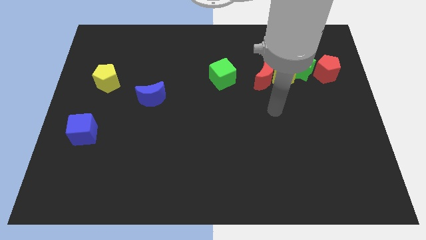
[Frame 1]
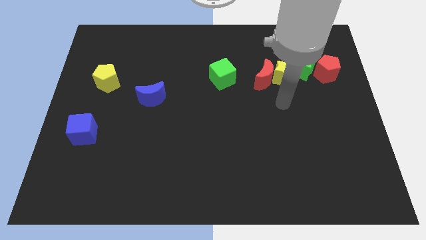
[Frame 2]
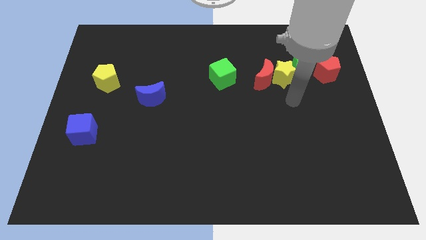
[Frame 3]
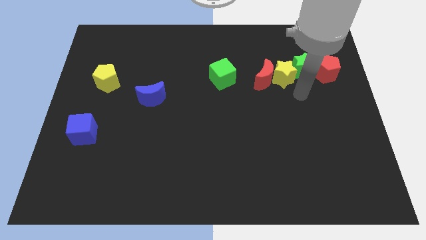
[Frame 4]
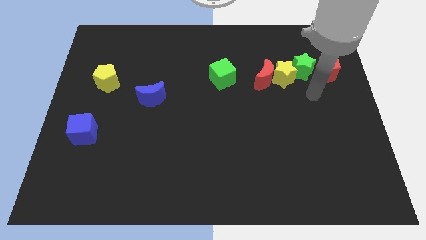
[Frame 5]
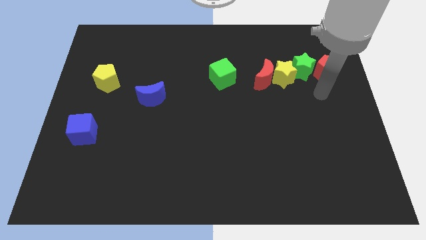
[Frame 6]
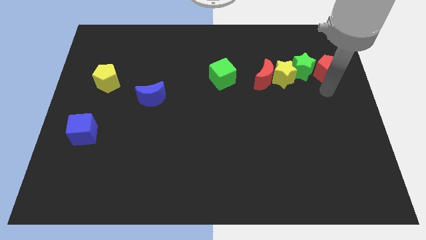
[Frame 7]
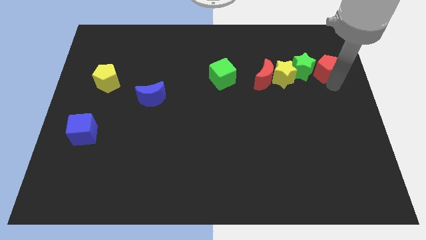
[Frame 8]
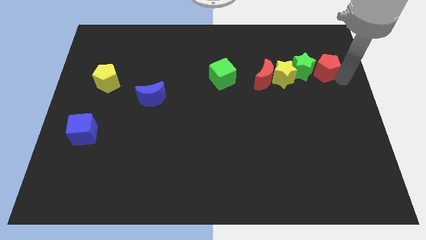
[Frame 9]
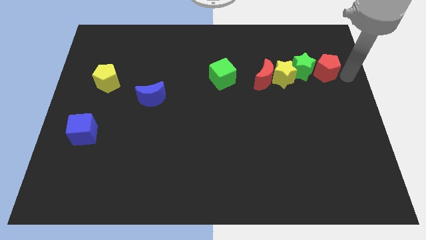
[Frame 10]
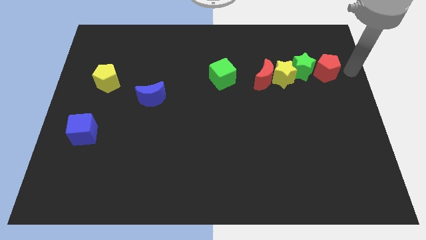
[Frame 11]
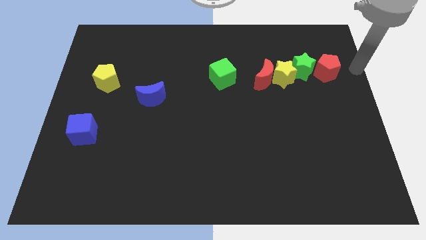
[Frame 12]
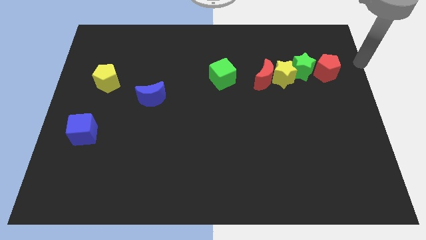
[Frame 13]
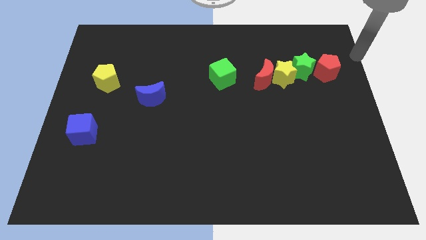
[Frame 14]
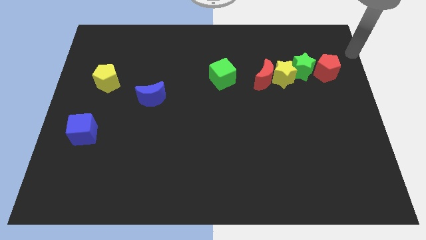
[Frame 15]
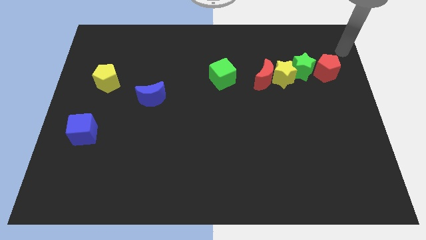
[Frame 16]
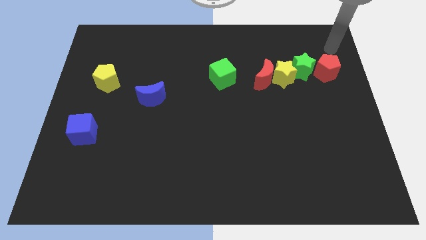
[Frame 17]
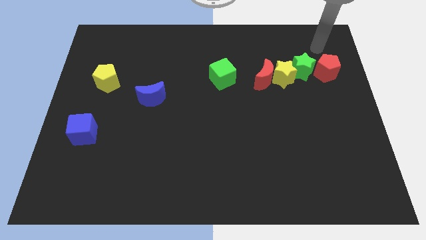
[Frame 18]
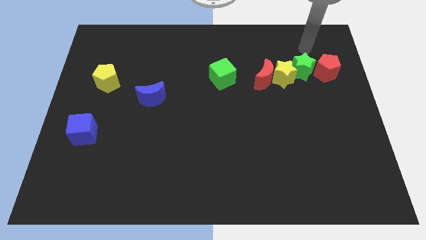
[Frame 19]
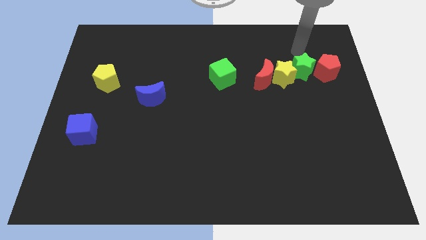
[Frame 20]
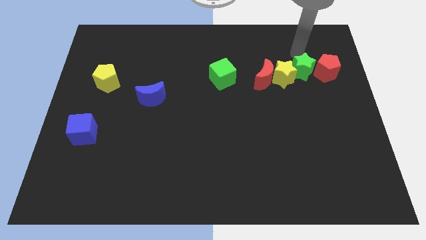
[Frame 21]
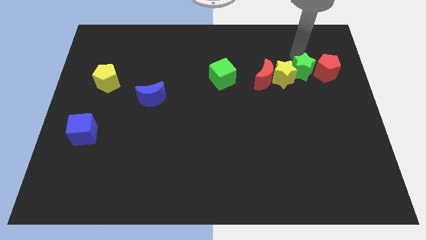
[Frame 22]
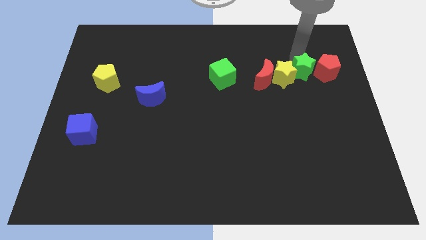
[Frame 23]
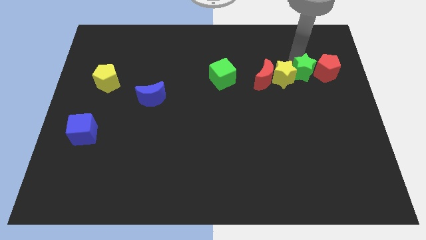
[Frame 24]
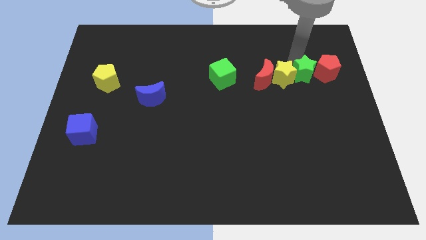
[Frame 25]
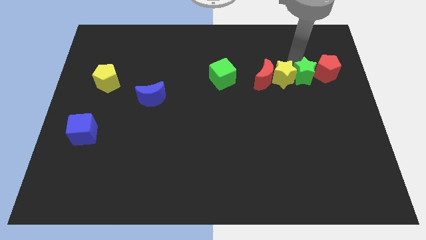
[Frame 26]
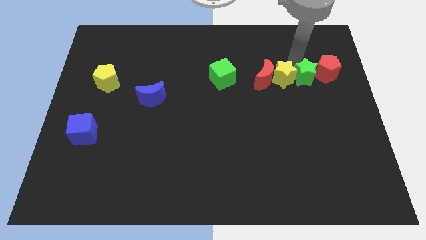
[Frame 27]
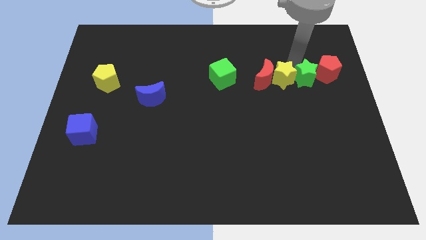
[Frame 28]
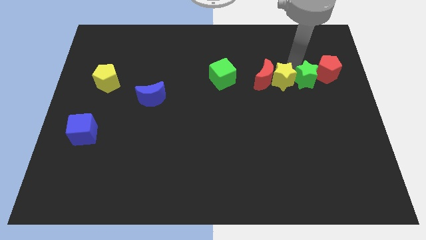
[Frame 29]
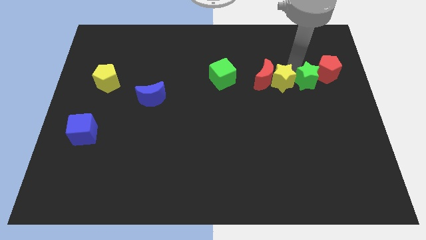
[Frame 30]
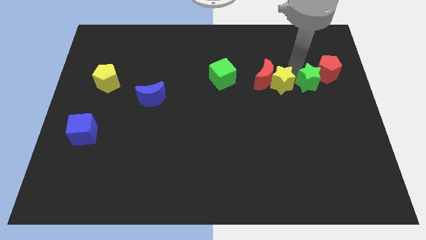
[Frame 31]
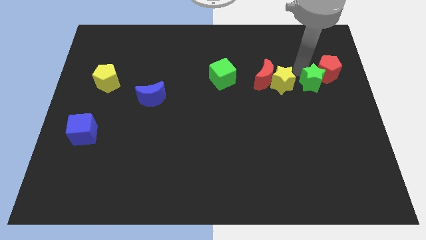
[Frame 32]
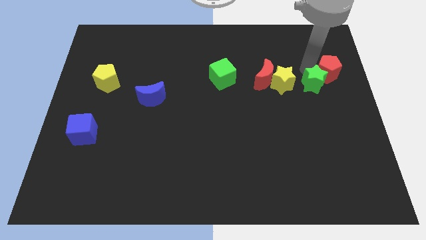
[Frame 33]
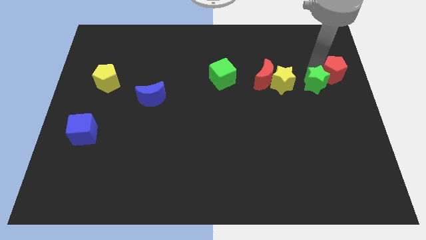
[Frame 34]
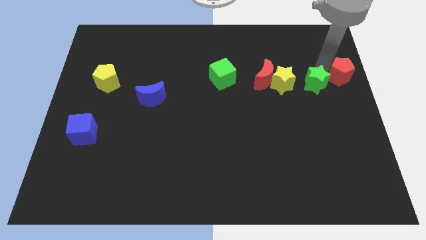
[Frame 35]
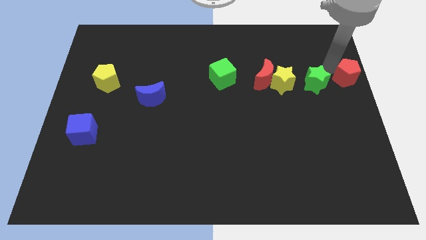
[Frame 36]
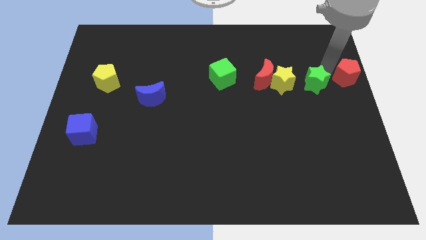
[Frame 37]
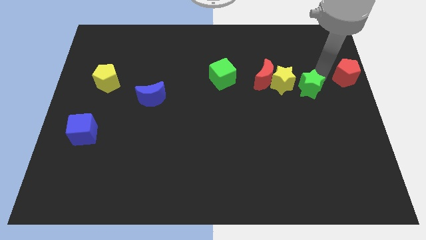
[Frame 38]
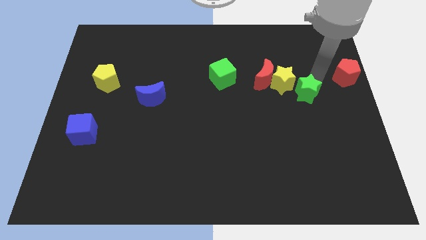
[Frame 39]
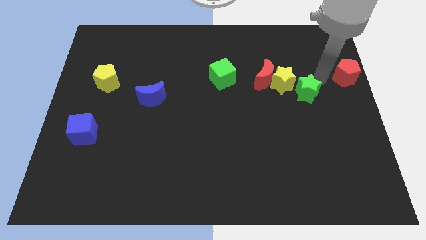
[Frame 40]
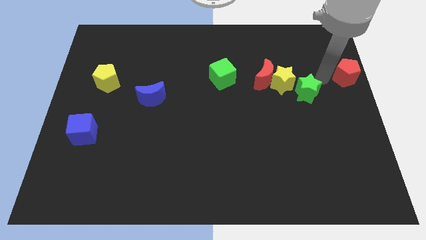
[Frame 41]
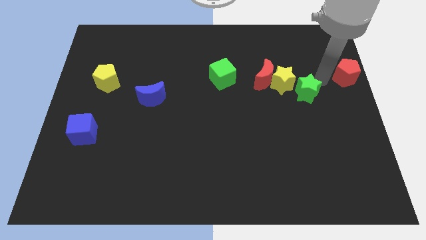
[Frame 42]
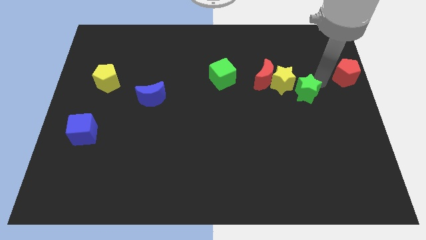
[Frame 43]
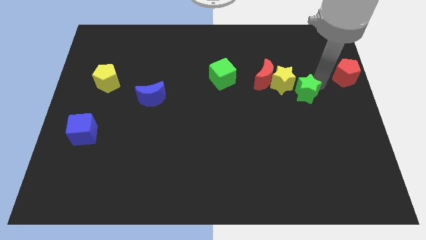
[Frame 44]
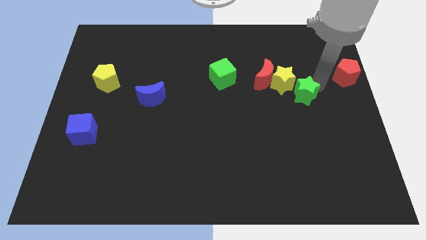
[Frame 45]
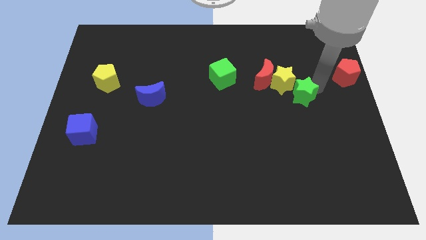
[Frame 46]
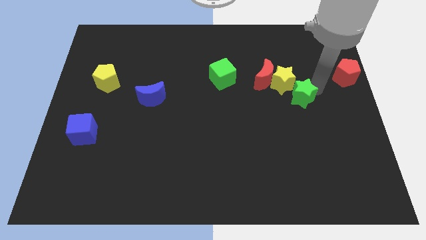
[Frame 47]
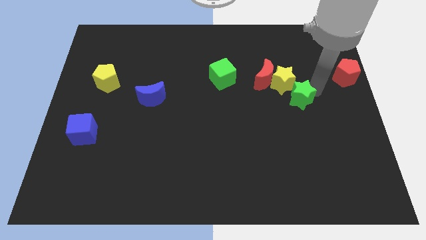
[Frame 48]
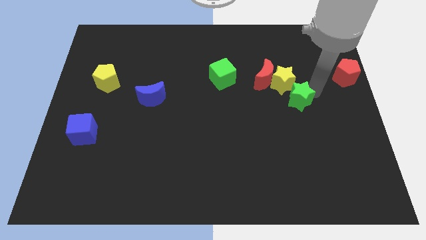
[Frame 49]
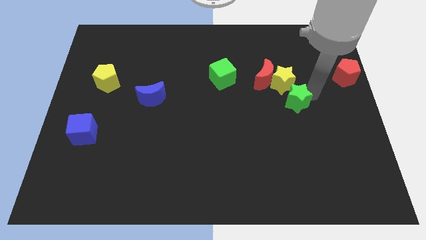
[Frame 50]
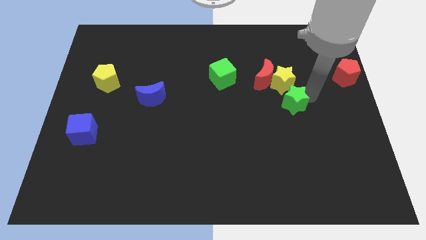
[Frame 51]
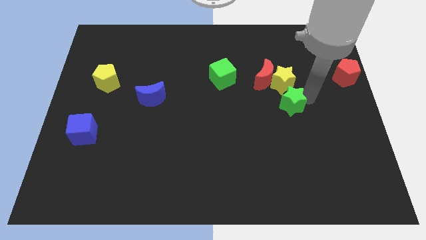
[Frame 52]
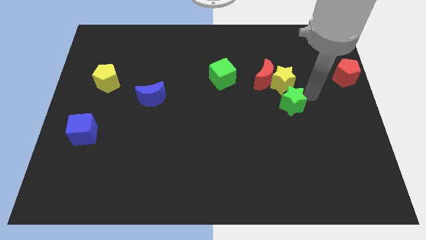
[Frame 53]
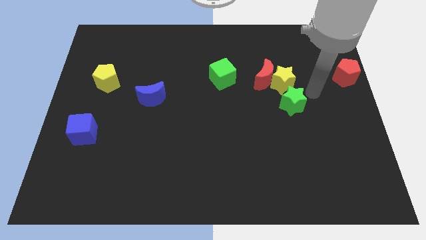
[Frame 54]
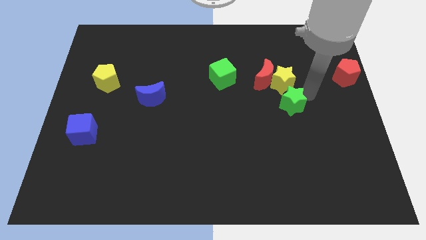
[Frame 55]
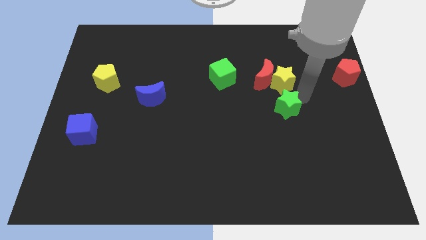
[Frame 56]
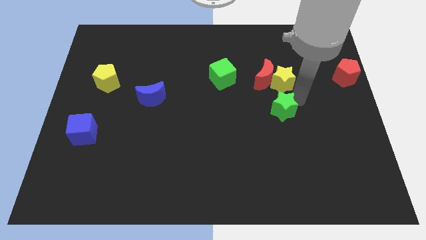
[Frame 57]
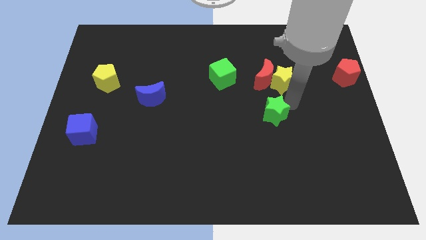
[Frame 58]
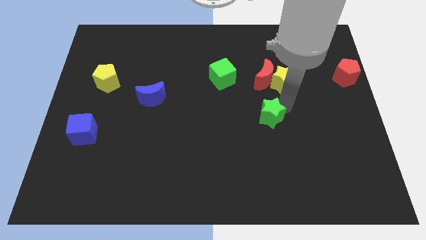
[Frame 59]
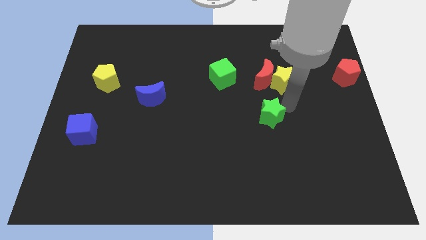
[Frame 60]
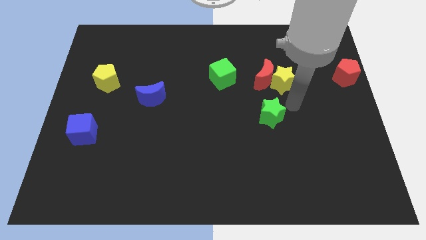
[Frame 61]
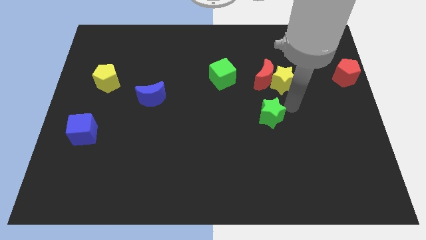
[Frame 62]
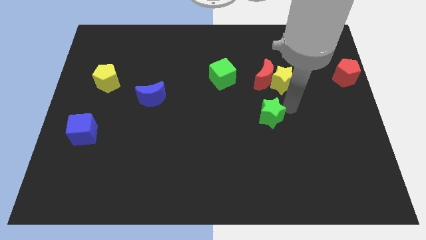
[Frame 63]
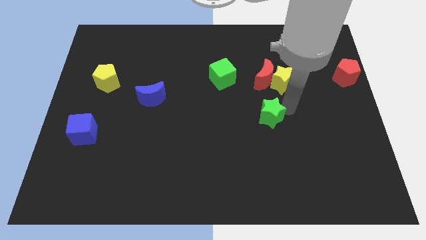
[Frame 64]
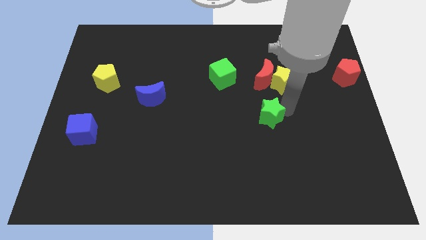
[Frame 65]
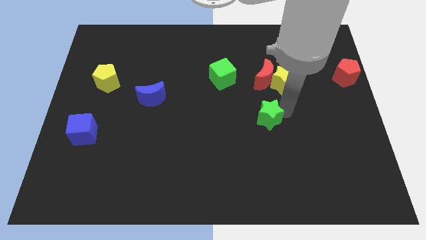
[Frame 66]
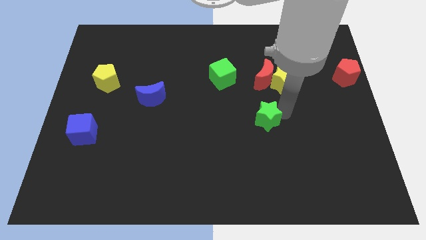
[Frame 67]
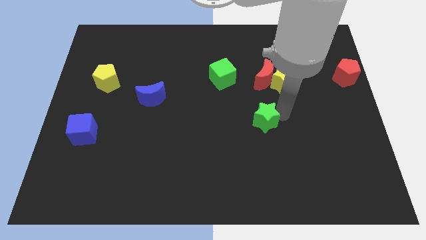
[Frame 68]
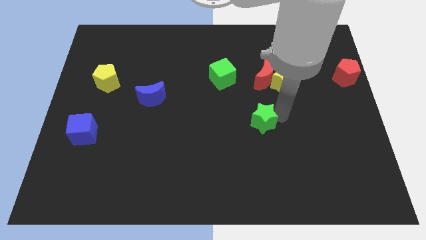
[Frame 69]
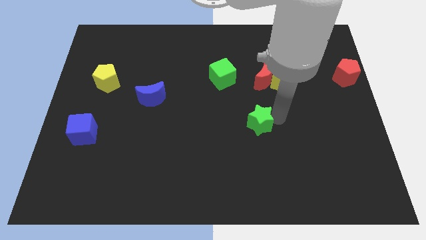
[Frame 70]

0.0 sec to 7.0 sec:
push the green star downwards and to the left diagonally

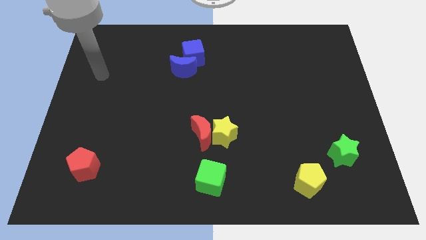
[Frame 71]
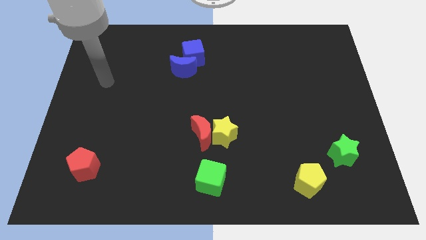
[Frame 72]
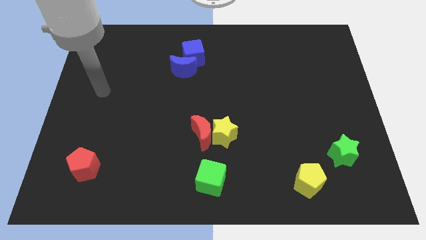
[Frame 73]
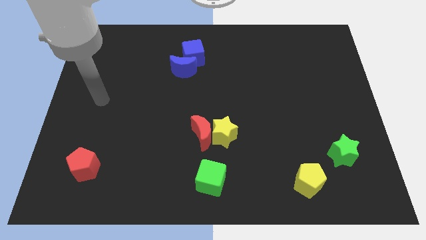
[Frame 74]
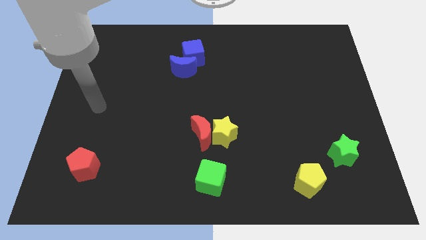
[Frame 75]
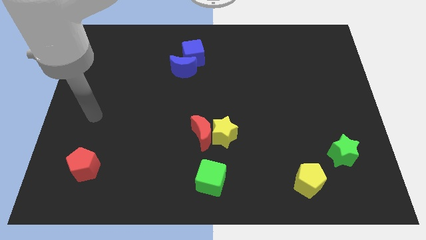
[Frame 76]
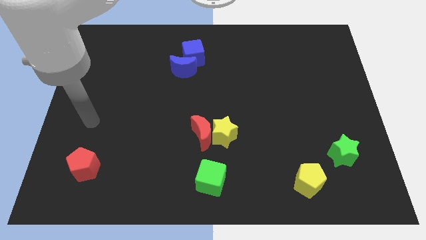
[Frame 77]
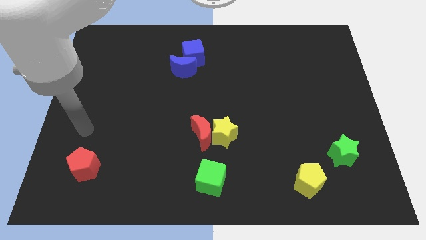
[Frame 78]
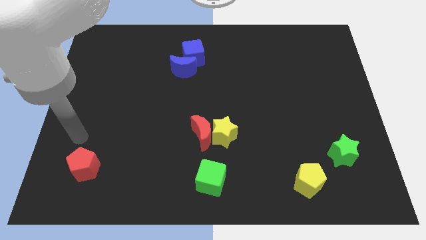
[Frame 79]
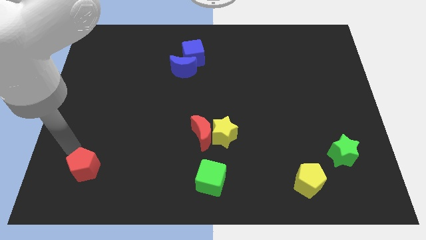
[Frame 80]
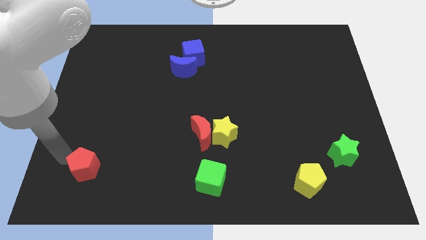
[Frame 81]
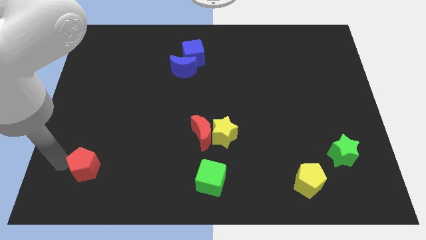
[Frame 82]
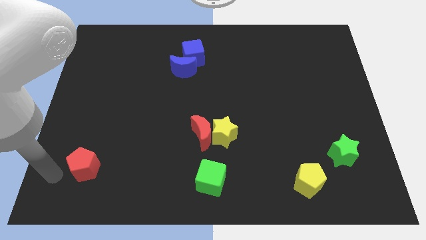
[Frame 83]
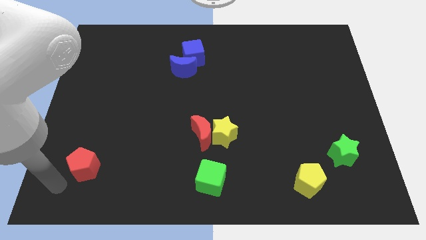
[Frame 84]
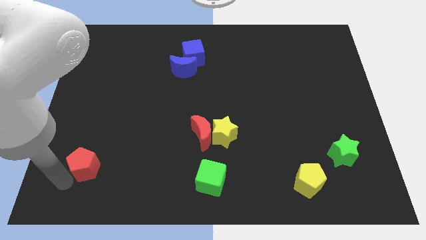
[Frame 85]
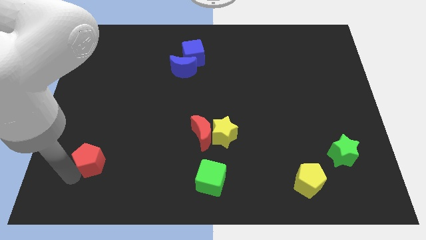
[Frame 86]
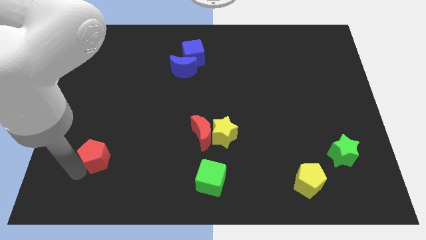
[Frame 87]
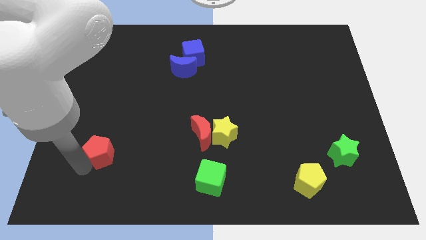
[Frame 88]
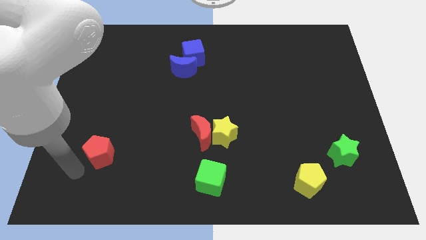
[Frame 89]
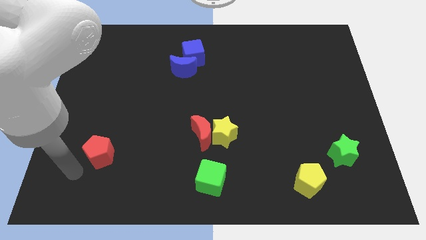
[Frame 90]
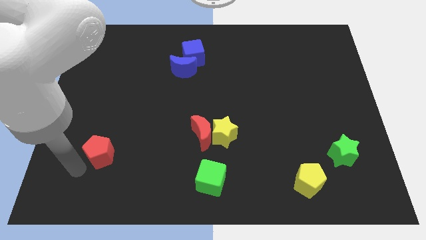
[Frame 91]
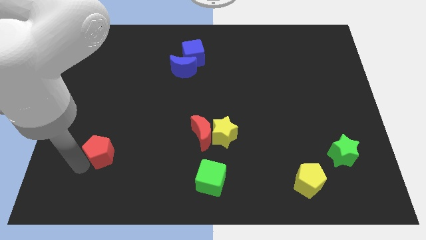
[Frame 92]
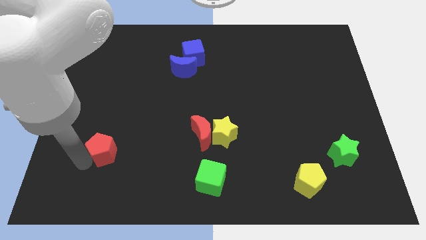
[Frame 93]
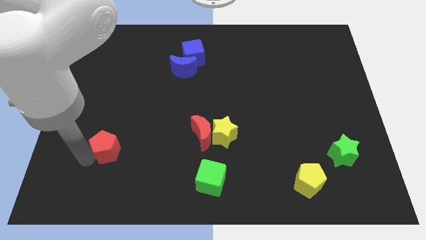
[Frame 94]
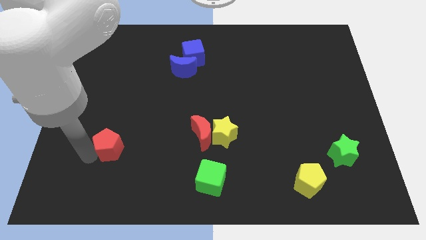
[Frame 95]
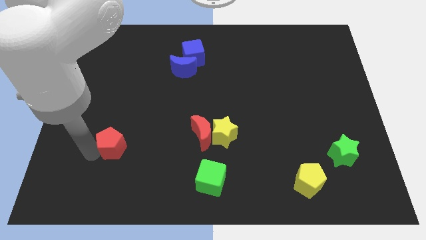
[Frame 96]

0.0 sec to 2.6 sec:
slightly push the red pentagon upwards and to the right
